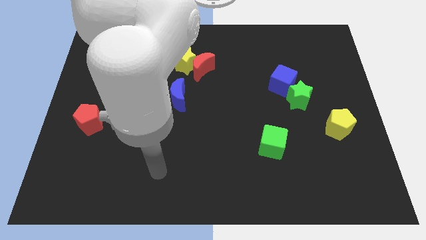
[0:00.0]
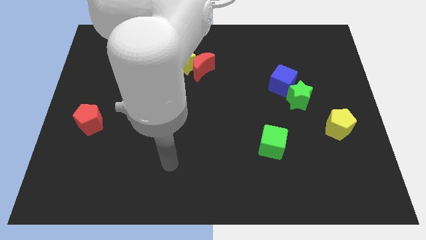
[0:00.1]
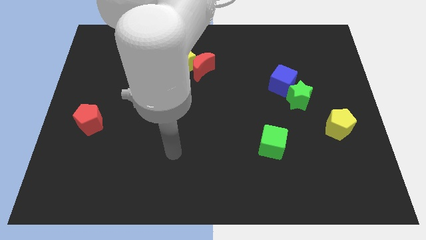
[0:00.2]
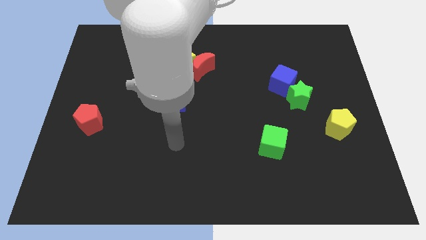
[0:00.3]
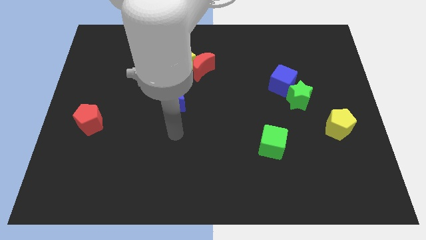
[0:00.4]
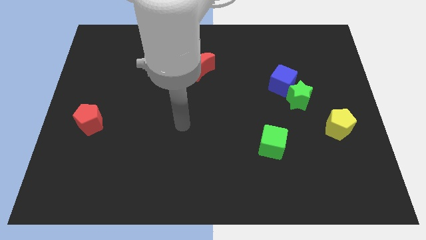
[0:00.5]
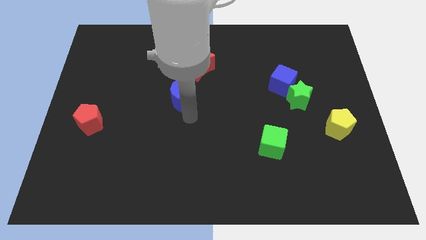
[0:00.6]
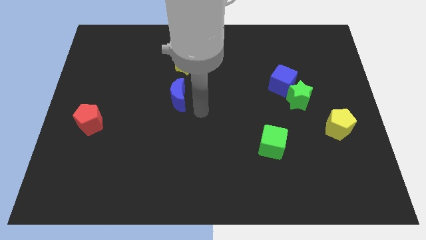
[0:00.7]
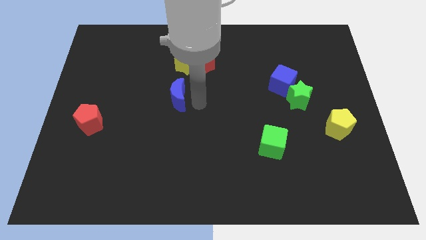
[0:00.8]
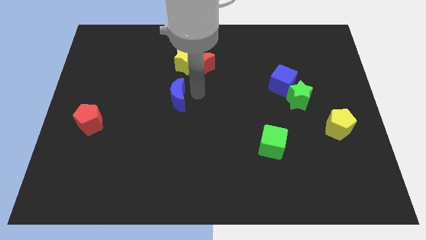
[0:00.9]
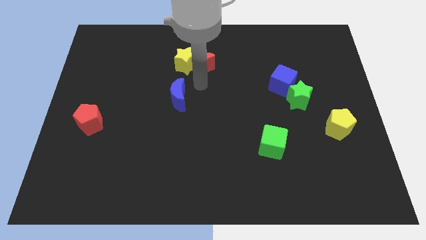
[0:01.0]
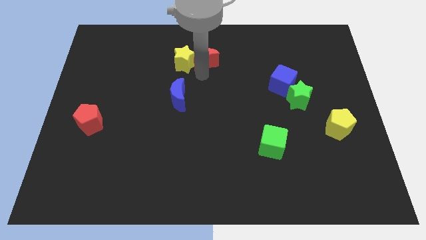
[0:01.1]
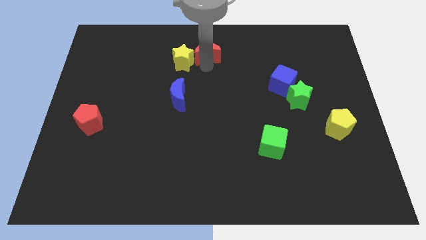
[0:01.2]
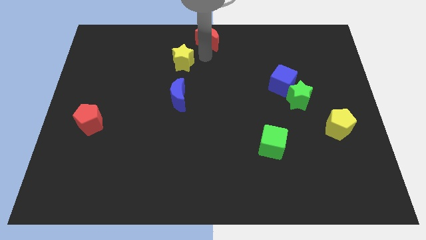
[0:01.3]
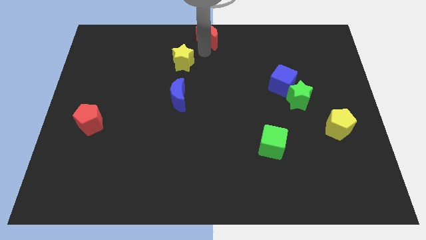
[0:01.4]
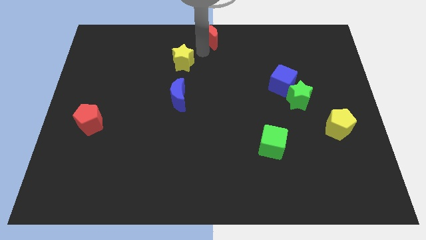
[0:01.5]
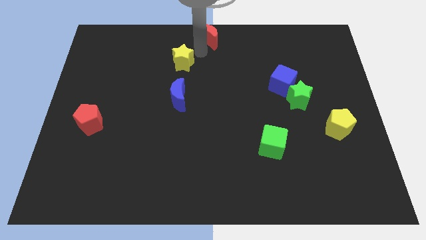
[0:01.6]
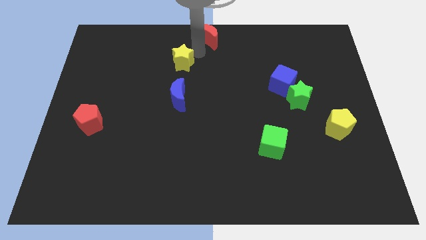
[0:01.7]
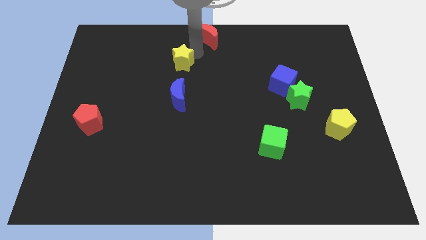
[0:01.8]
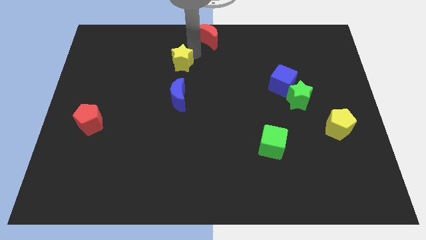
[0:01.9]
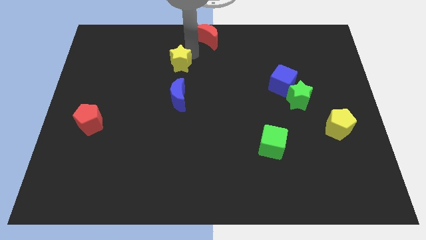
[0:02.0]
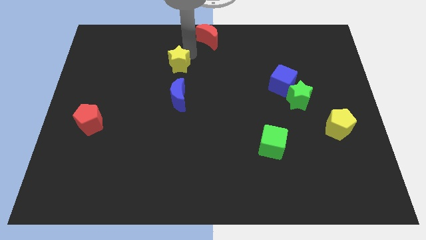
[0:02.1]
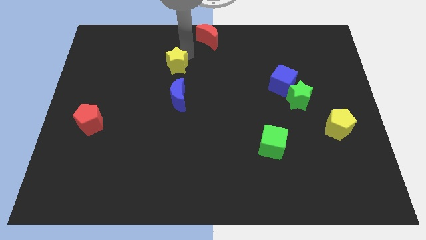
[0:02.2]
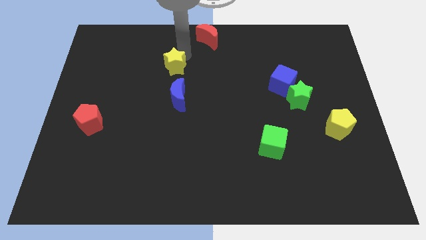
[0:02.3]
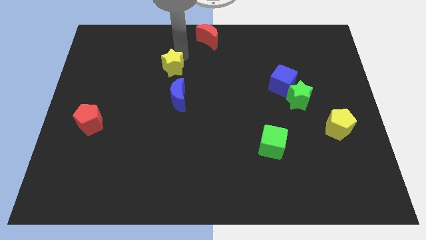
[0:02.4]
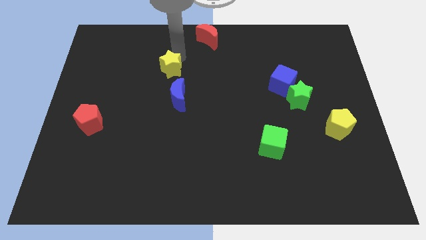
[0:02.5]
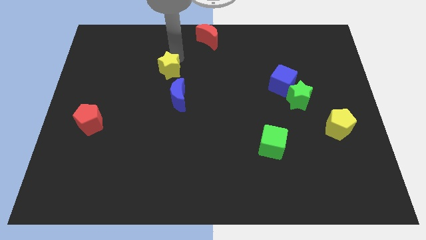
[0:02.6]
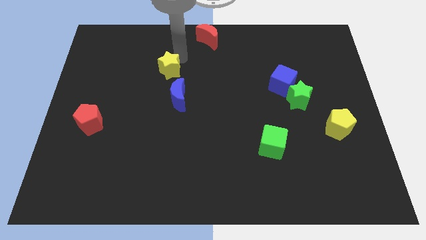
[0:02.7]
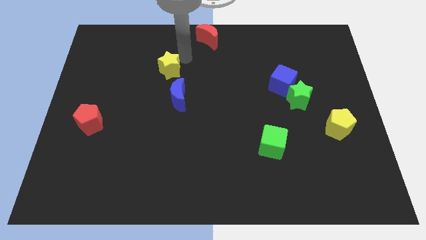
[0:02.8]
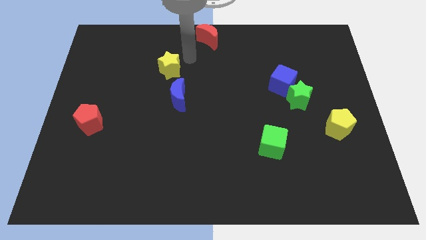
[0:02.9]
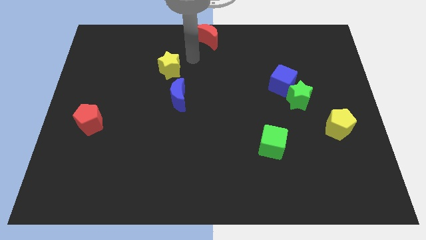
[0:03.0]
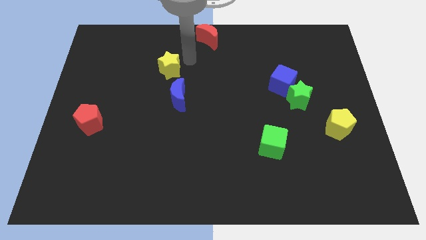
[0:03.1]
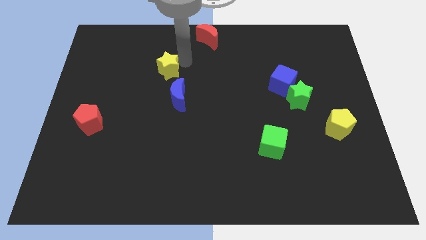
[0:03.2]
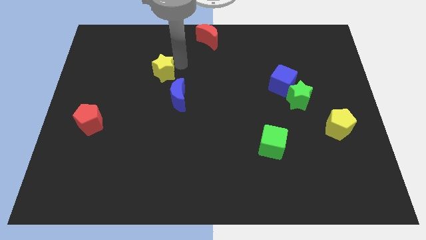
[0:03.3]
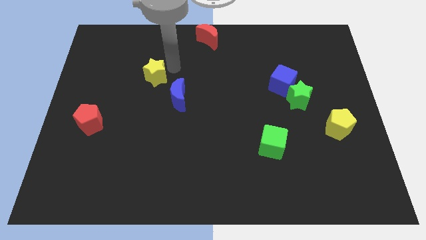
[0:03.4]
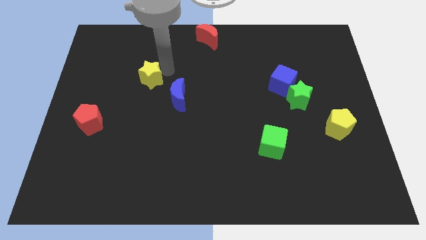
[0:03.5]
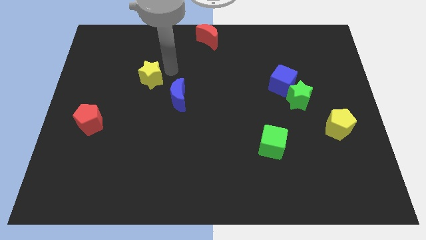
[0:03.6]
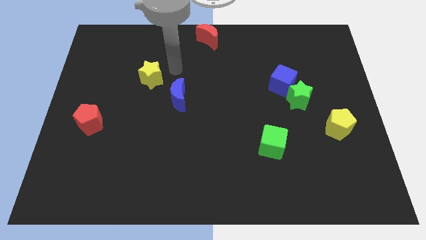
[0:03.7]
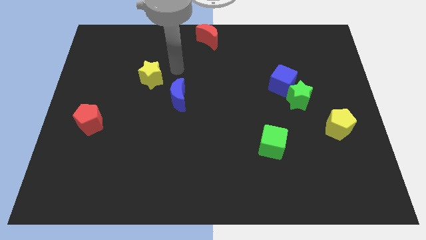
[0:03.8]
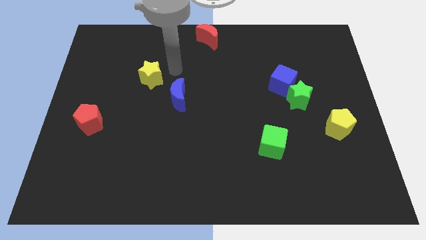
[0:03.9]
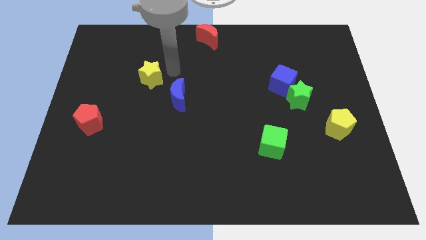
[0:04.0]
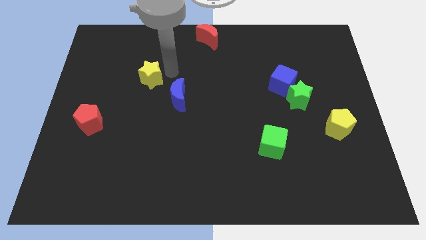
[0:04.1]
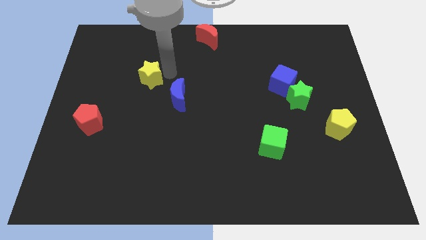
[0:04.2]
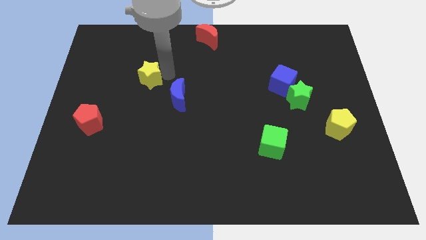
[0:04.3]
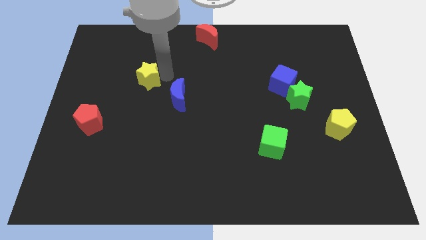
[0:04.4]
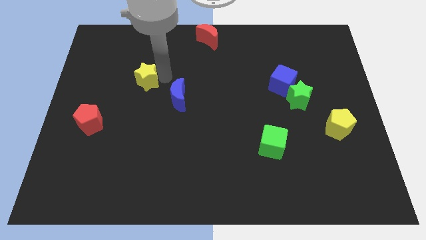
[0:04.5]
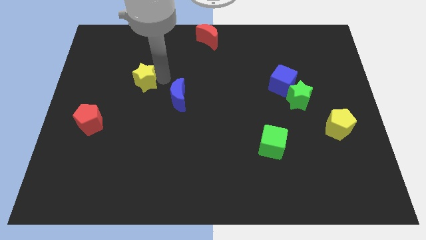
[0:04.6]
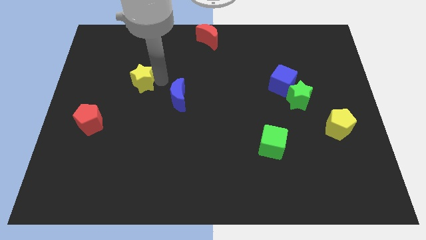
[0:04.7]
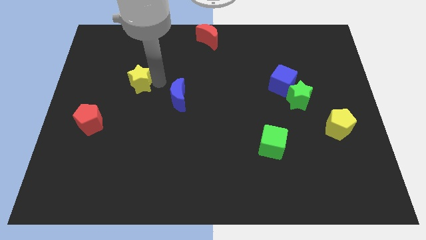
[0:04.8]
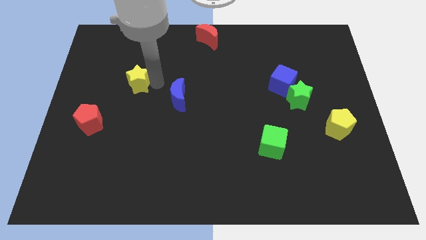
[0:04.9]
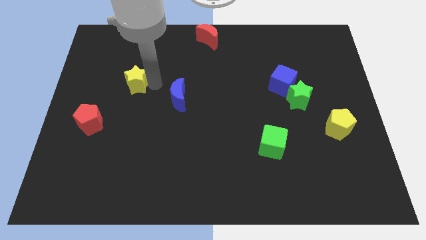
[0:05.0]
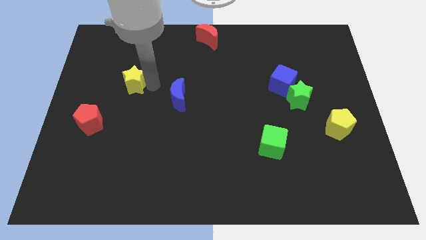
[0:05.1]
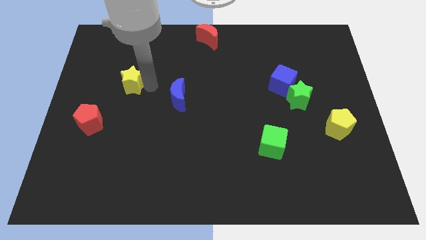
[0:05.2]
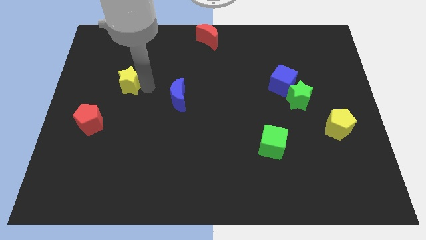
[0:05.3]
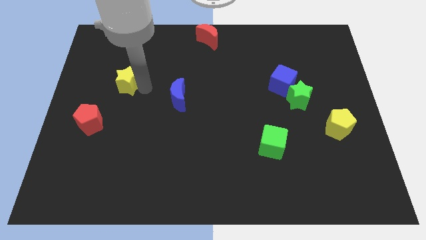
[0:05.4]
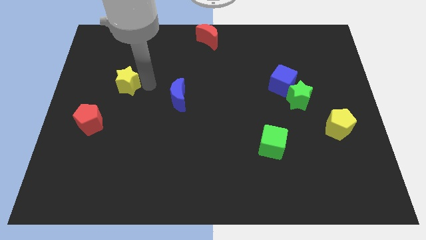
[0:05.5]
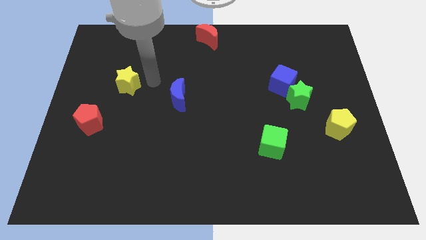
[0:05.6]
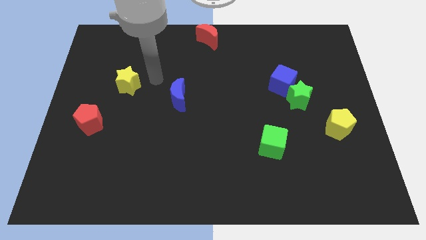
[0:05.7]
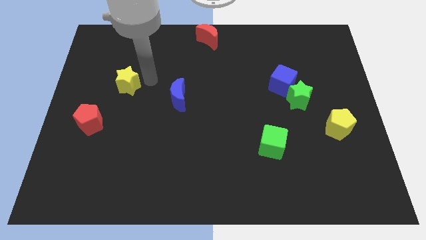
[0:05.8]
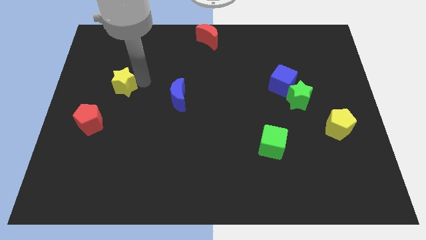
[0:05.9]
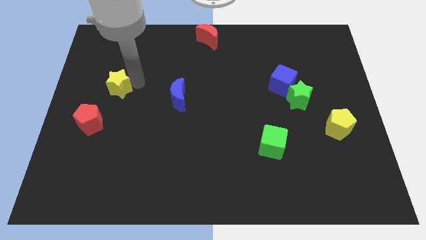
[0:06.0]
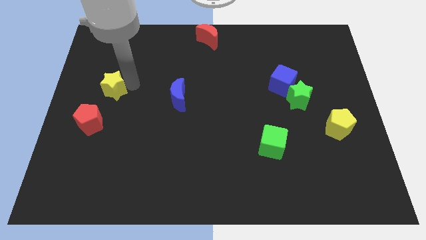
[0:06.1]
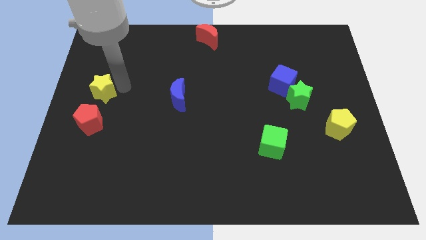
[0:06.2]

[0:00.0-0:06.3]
push the yellow star to the left side of the board
